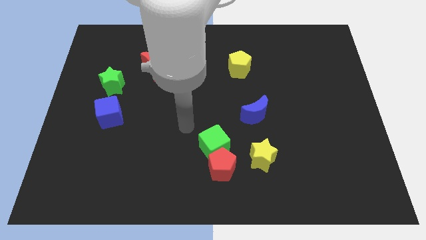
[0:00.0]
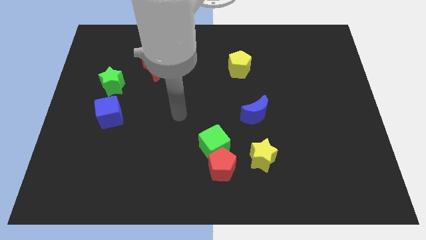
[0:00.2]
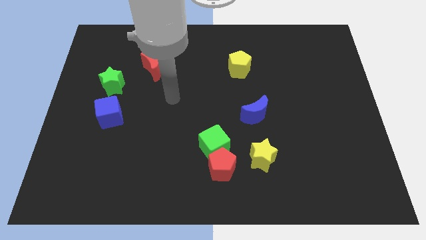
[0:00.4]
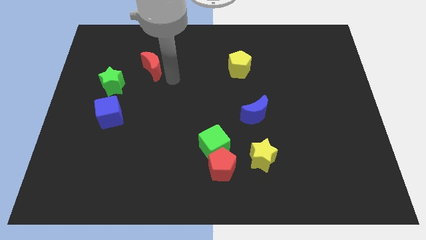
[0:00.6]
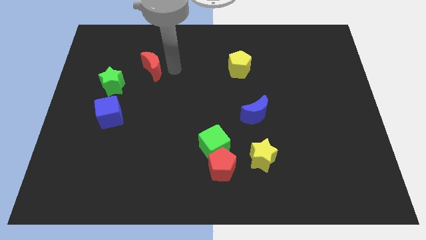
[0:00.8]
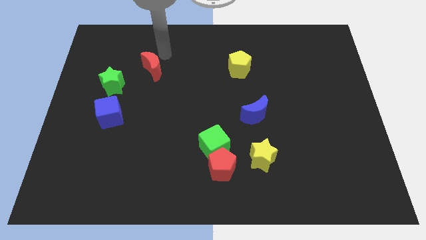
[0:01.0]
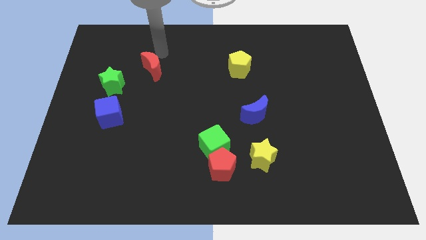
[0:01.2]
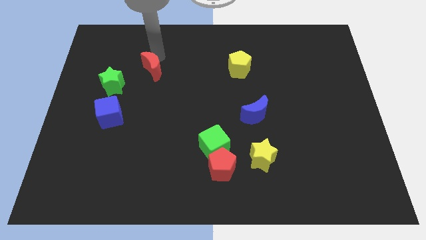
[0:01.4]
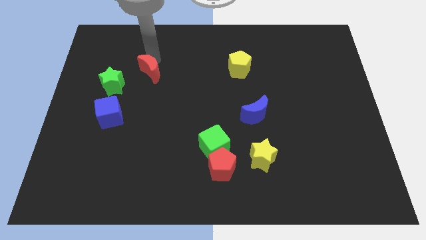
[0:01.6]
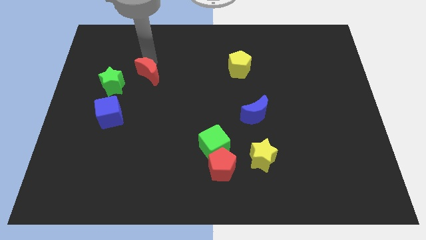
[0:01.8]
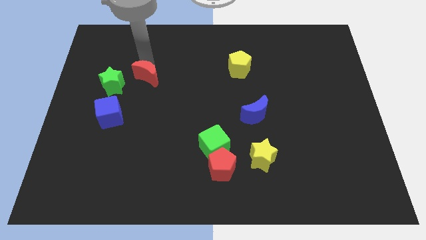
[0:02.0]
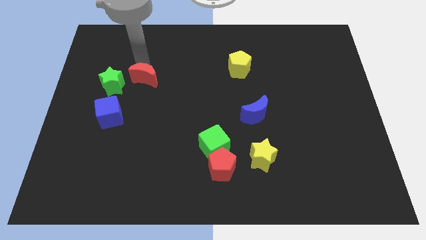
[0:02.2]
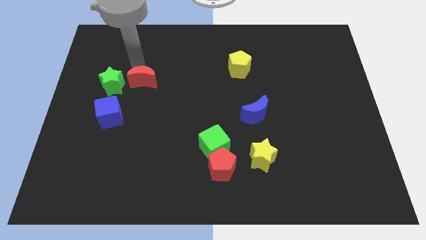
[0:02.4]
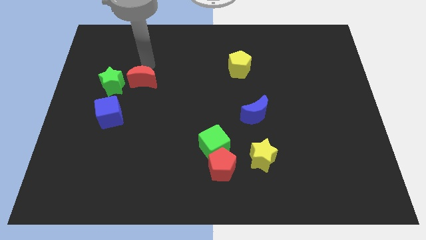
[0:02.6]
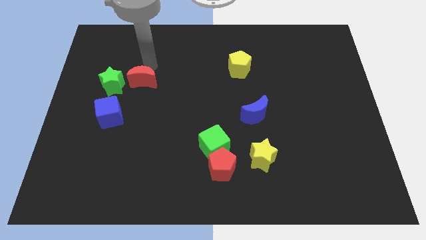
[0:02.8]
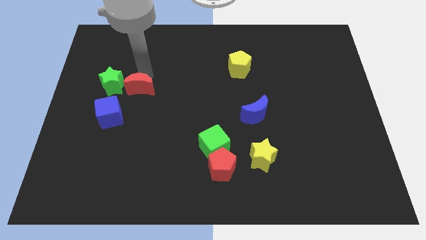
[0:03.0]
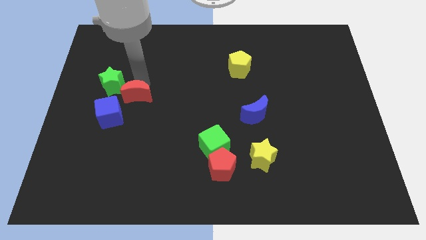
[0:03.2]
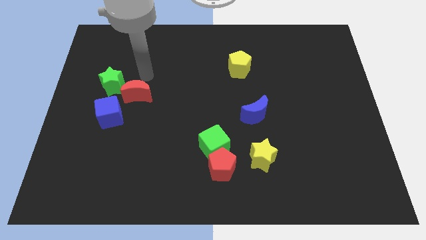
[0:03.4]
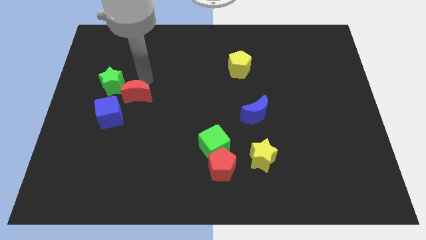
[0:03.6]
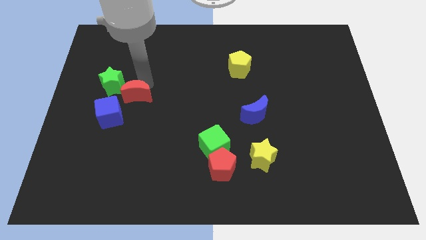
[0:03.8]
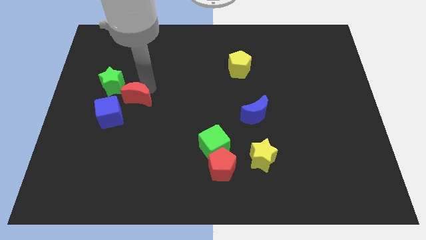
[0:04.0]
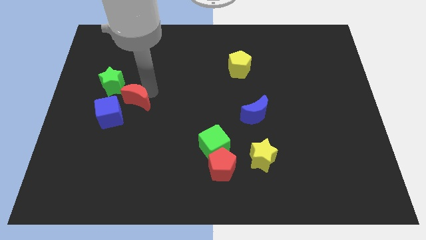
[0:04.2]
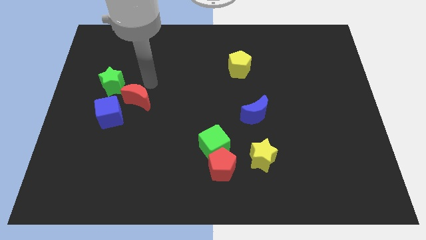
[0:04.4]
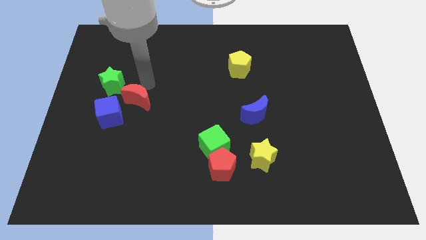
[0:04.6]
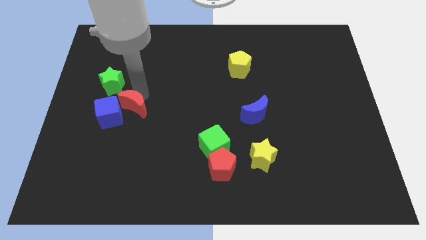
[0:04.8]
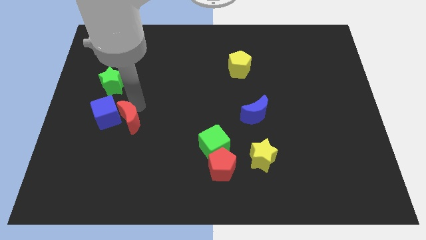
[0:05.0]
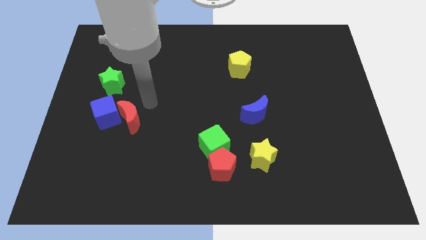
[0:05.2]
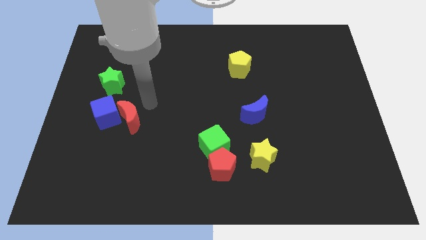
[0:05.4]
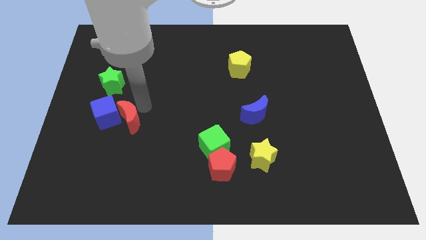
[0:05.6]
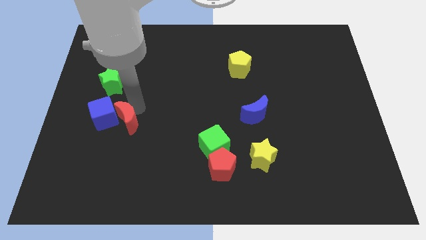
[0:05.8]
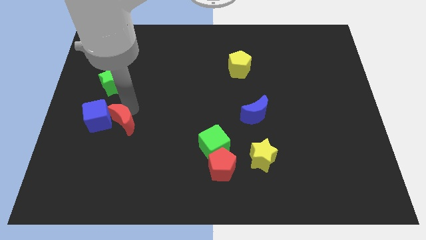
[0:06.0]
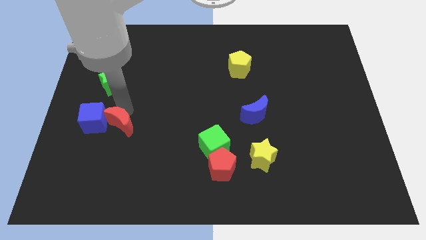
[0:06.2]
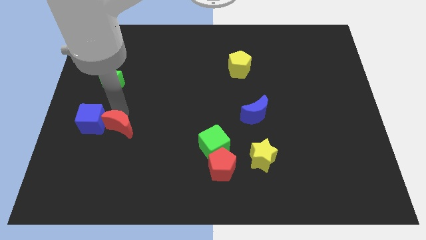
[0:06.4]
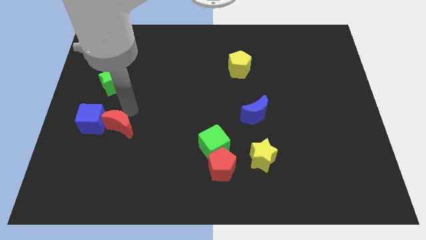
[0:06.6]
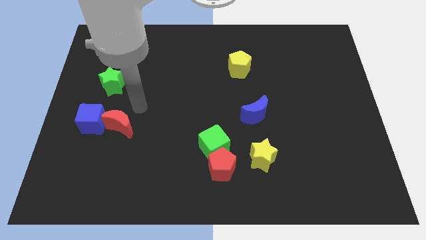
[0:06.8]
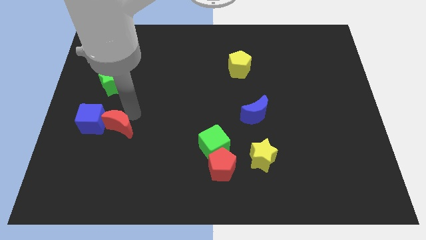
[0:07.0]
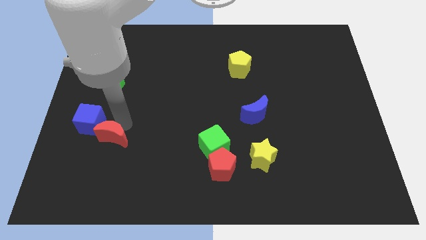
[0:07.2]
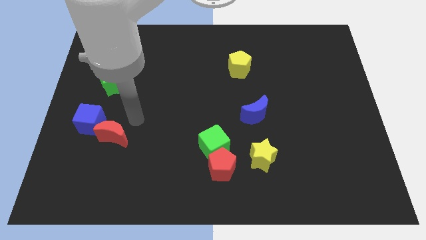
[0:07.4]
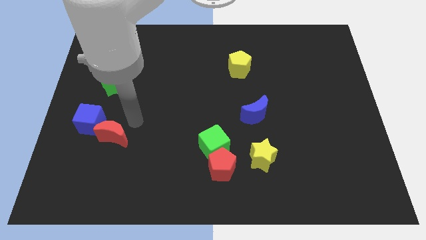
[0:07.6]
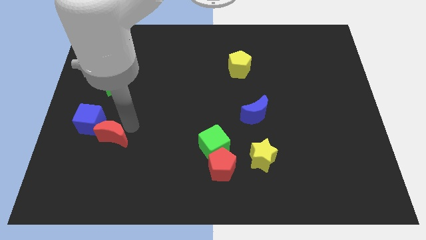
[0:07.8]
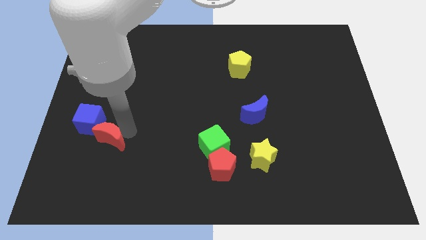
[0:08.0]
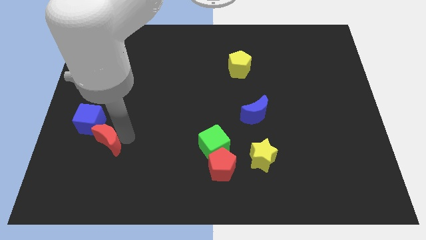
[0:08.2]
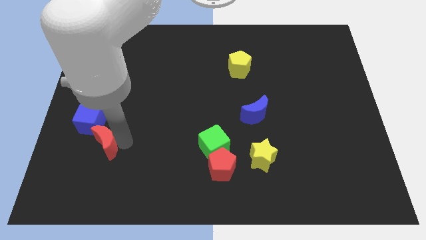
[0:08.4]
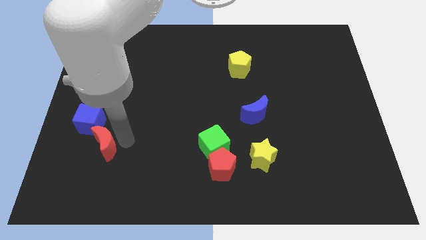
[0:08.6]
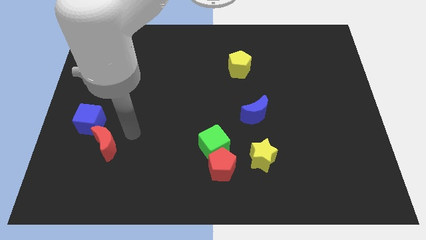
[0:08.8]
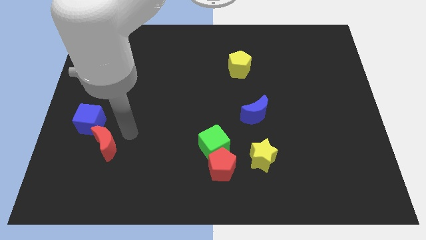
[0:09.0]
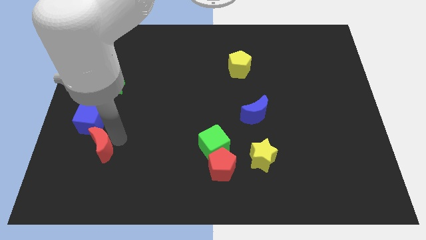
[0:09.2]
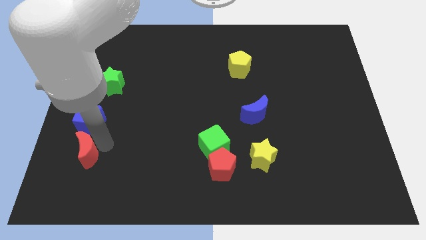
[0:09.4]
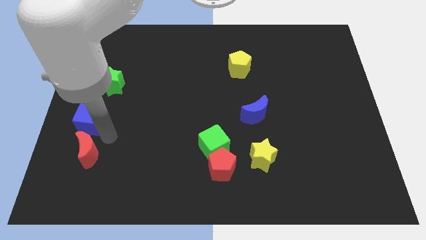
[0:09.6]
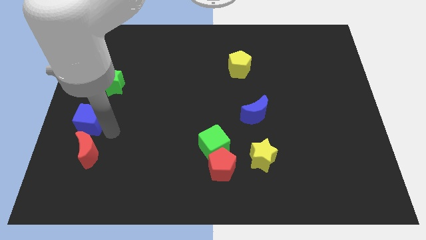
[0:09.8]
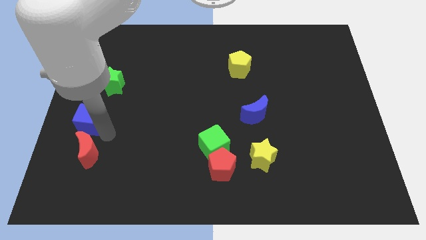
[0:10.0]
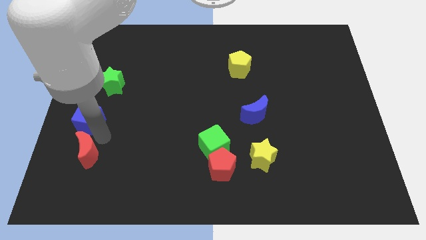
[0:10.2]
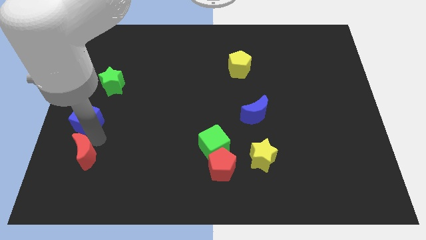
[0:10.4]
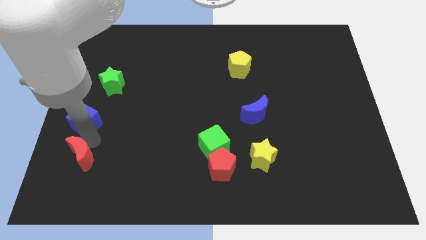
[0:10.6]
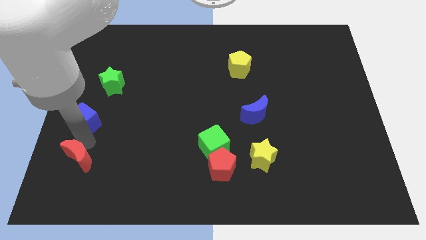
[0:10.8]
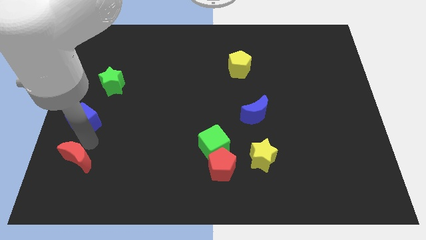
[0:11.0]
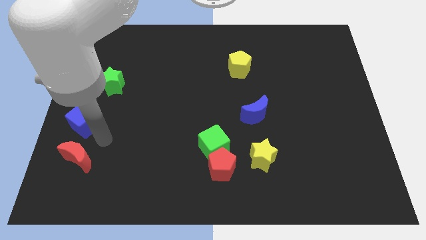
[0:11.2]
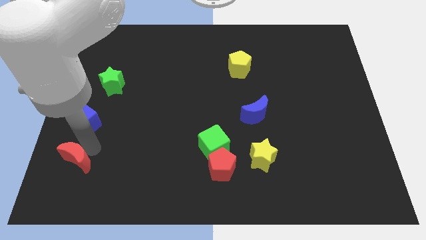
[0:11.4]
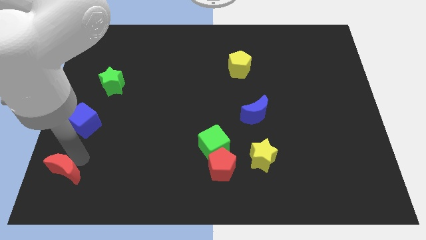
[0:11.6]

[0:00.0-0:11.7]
push the red moon to the bottom left corner

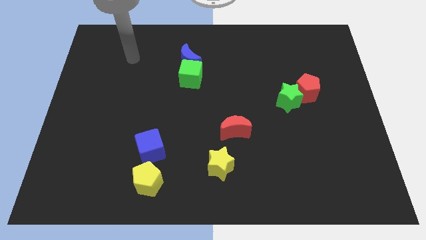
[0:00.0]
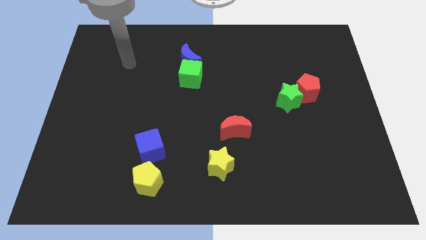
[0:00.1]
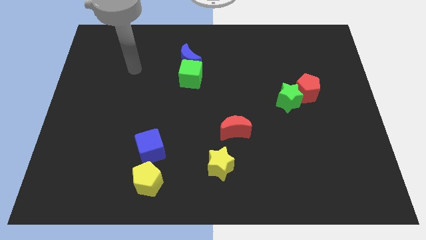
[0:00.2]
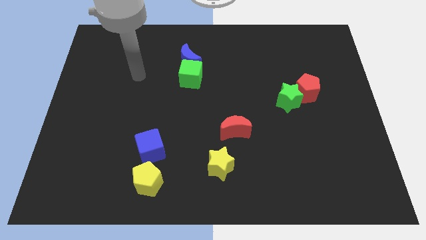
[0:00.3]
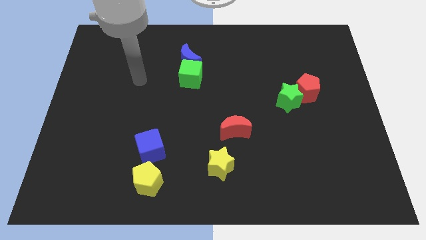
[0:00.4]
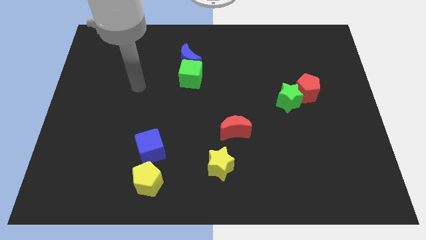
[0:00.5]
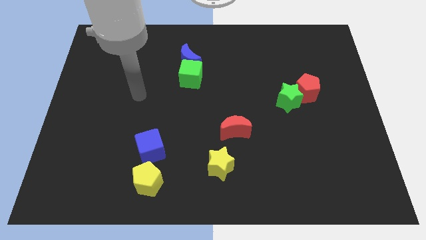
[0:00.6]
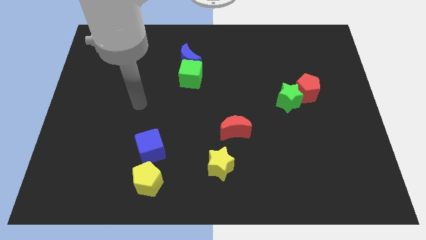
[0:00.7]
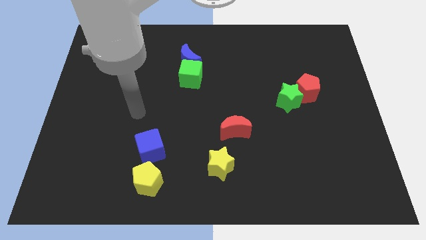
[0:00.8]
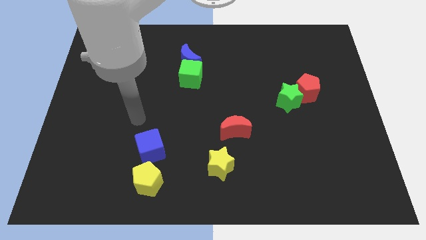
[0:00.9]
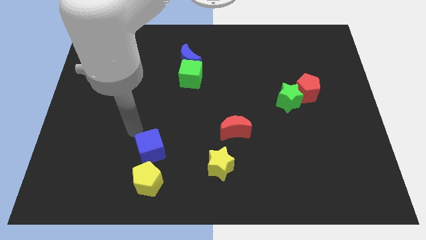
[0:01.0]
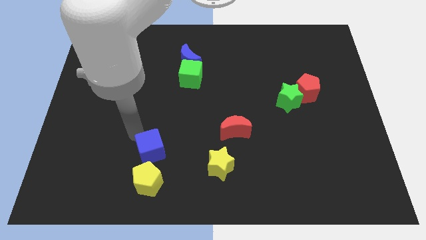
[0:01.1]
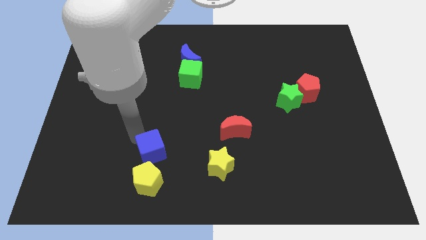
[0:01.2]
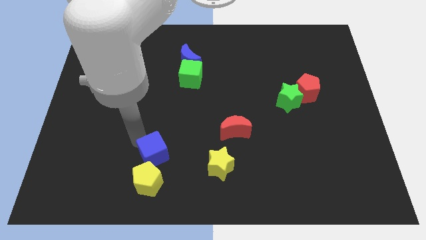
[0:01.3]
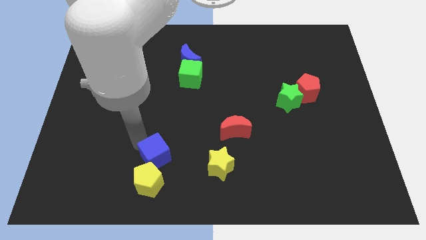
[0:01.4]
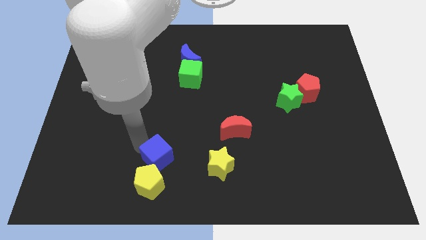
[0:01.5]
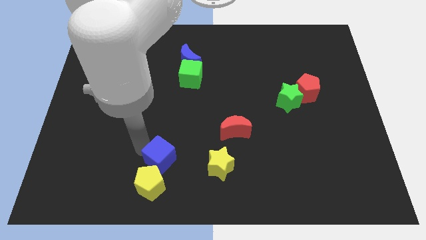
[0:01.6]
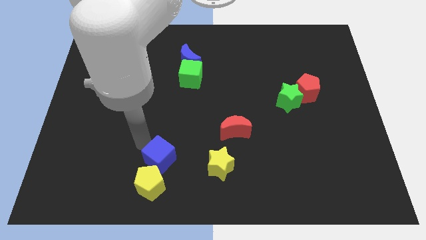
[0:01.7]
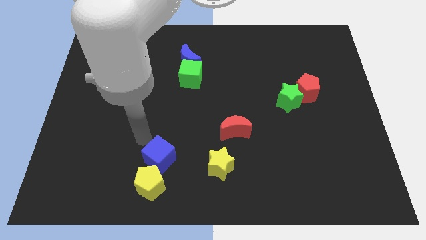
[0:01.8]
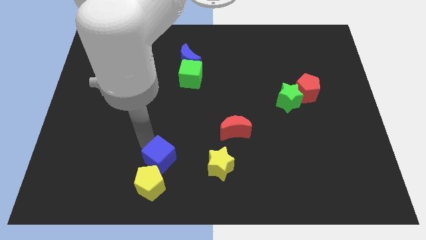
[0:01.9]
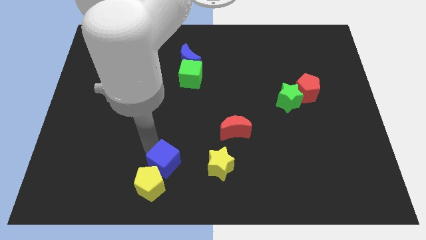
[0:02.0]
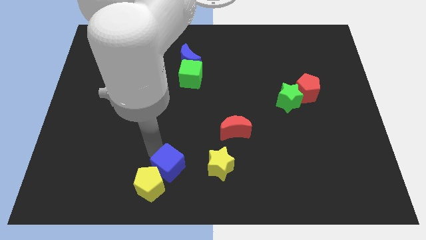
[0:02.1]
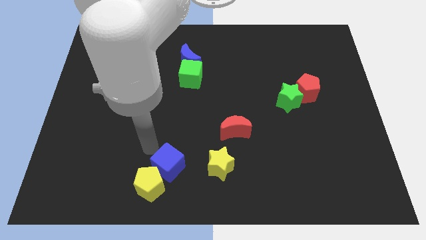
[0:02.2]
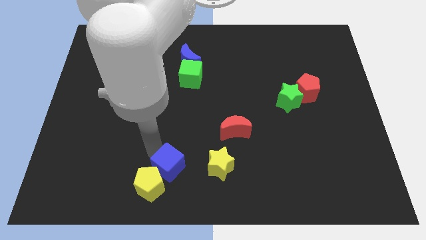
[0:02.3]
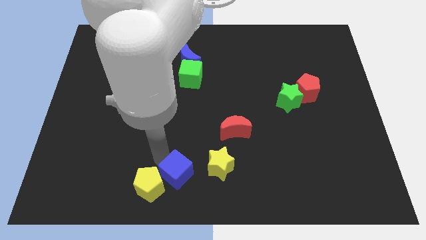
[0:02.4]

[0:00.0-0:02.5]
slide the blue cube to the bottom
